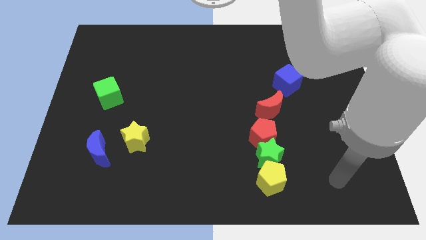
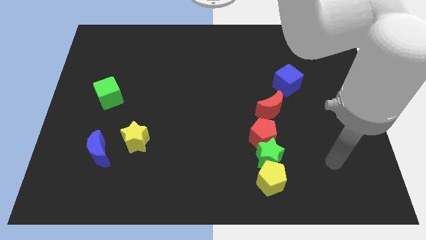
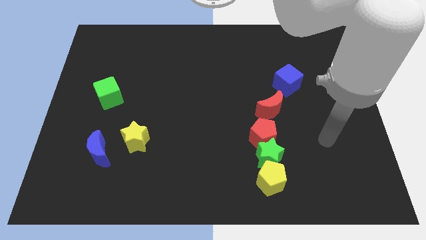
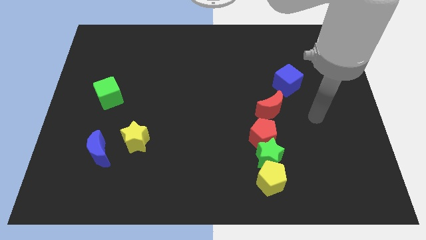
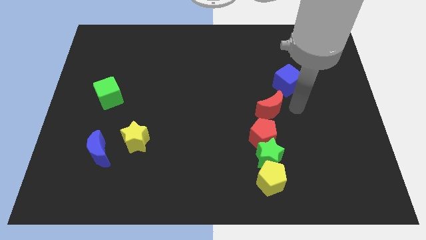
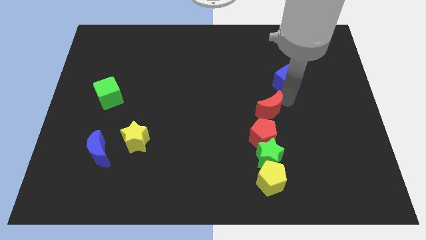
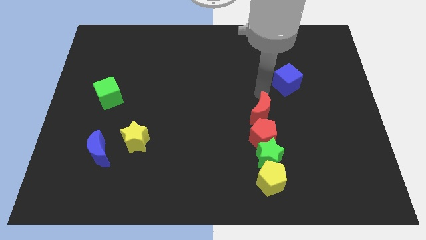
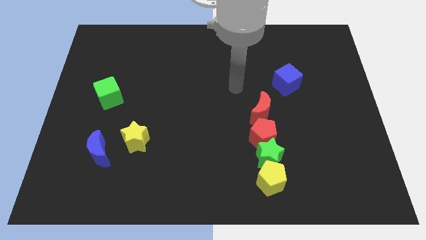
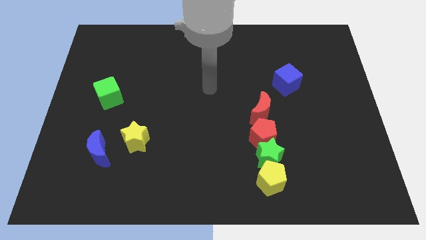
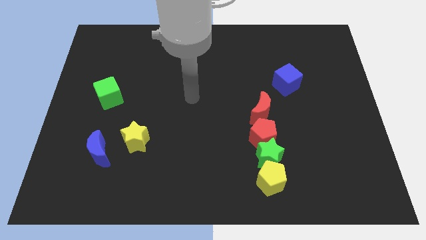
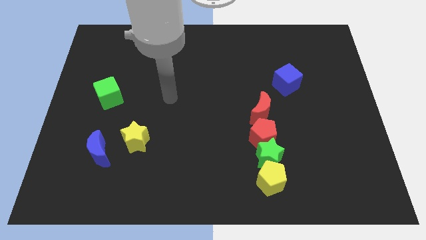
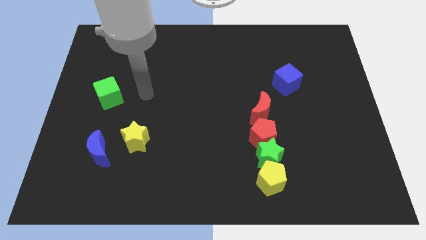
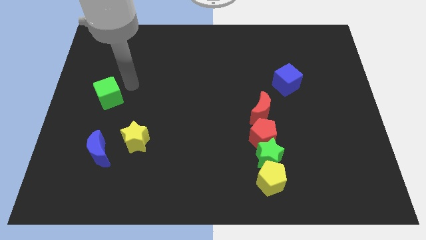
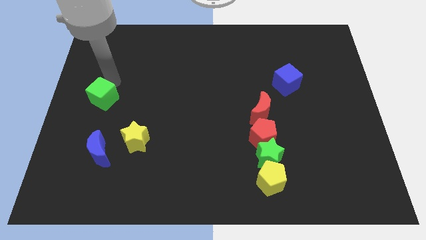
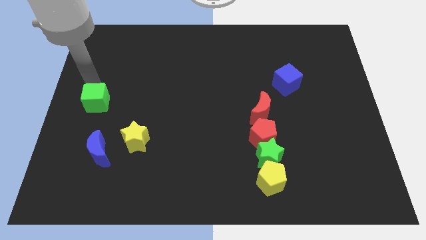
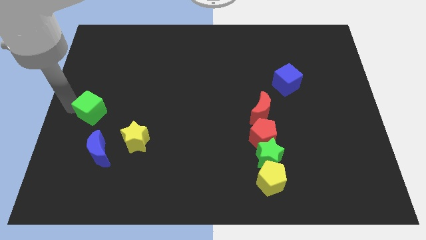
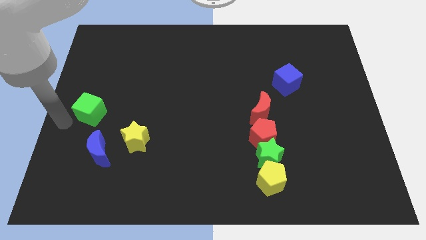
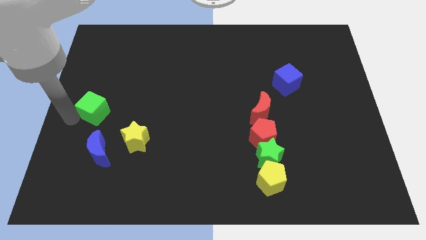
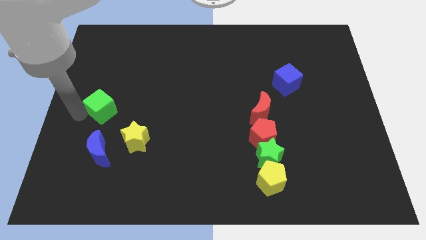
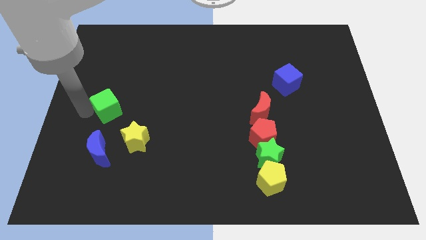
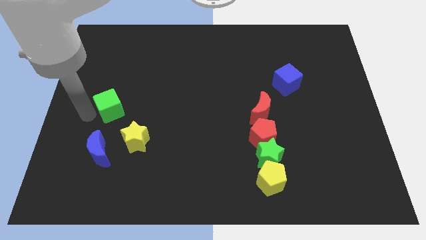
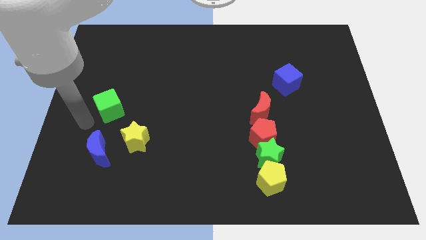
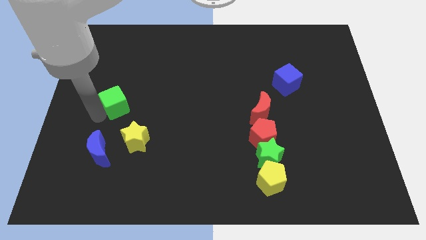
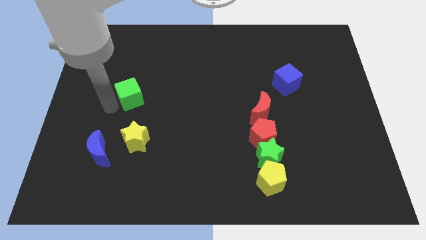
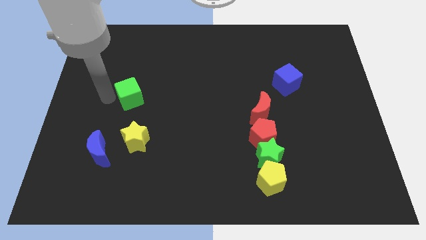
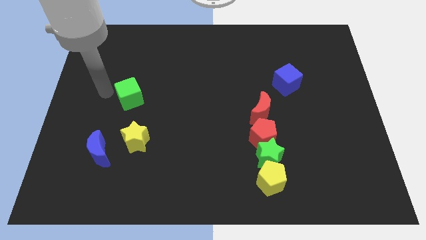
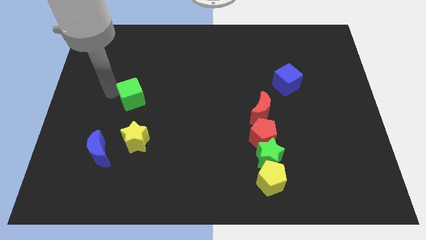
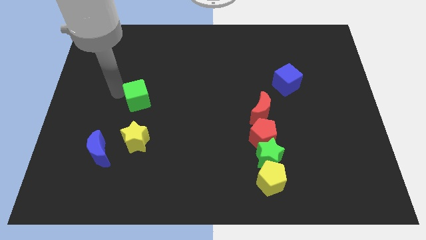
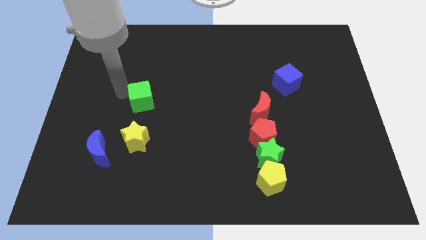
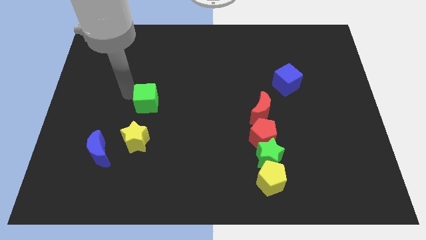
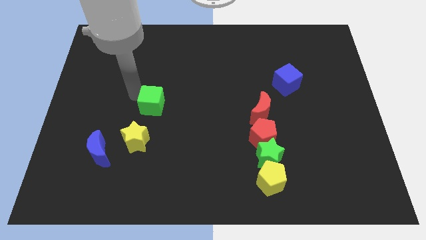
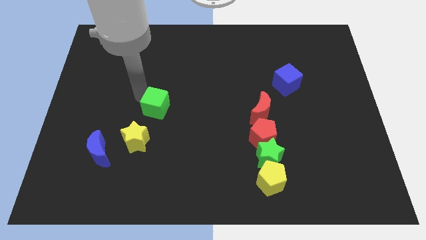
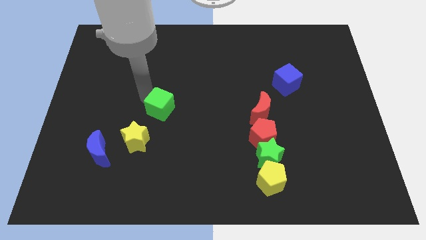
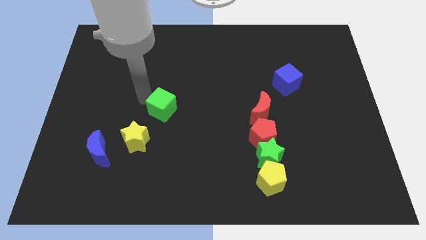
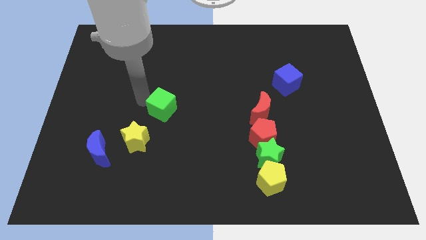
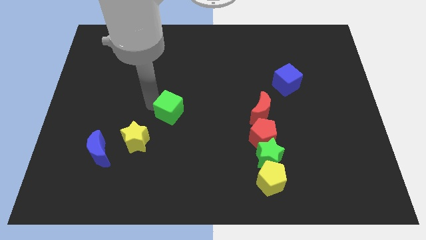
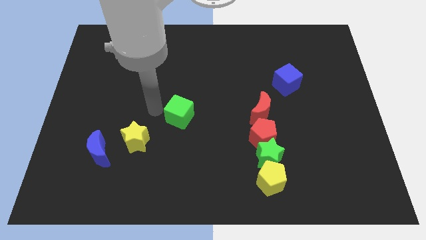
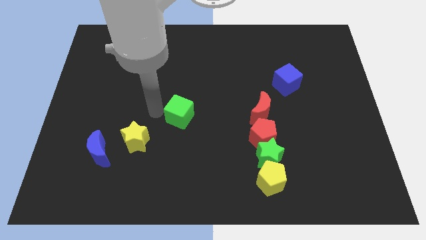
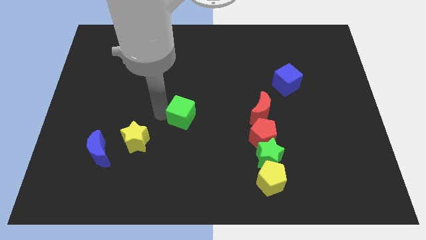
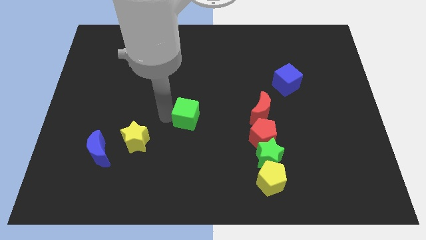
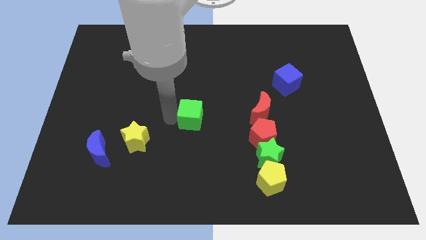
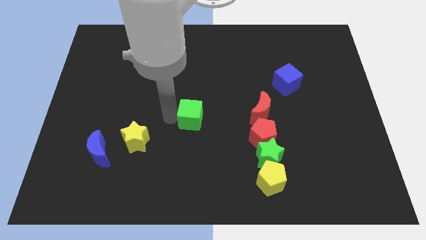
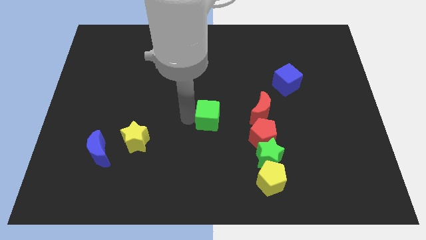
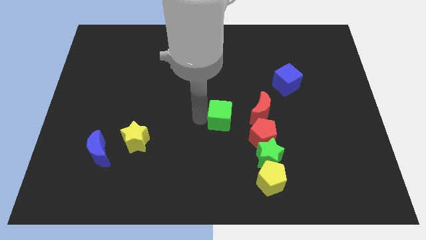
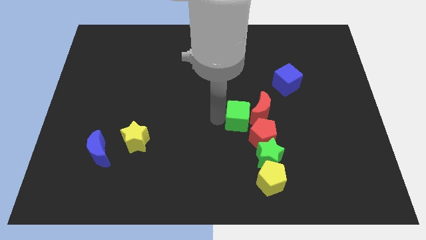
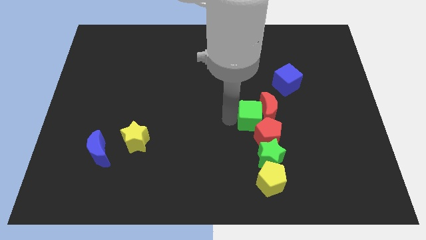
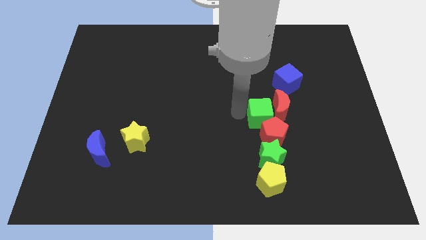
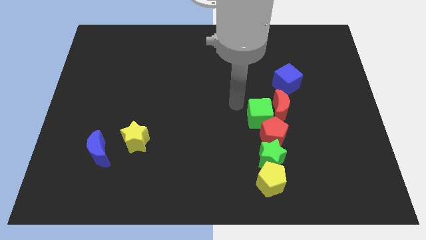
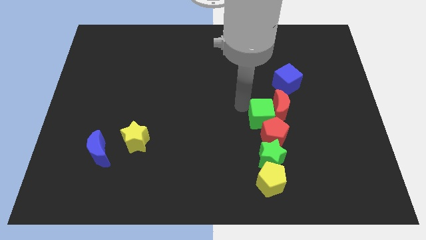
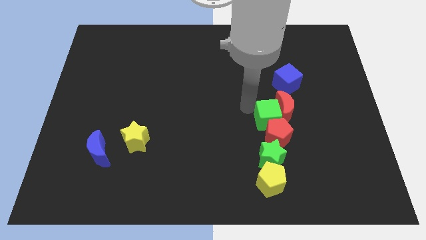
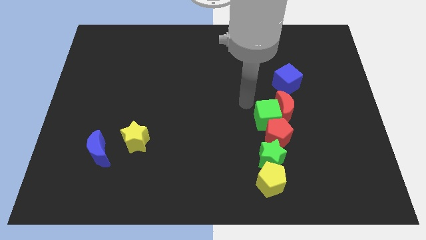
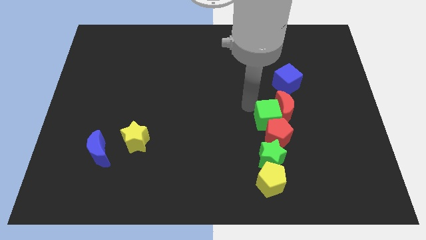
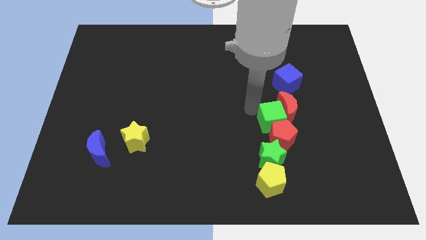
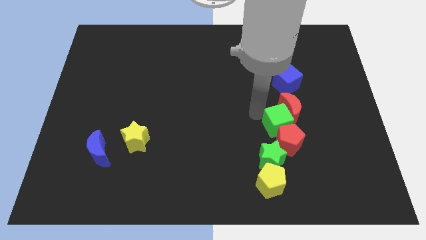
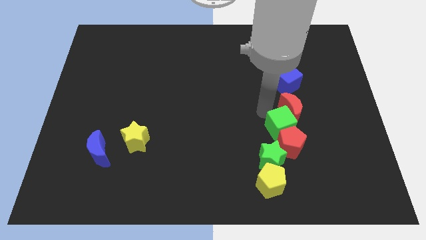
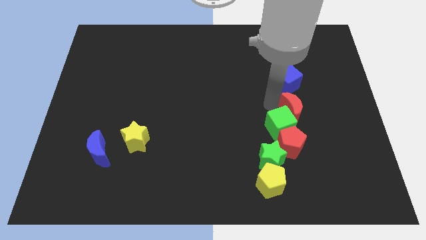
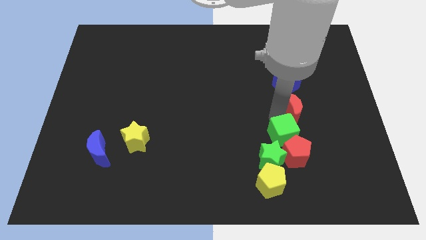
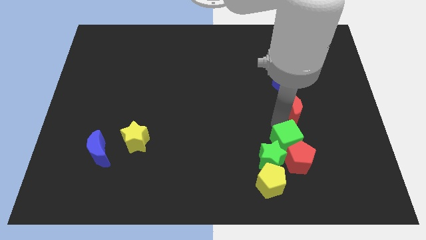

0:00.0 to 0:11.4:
push the green cube diagonally up and to the right of the yellow pentagon

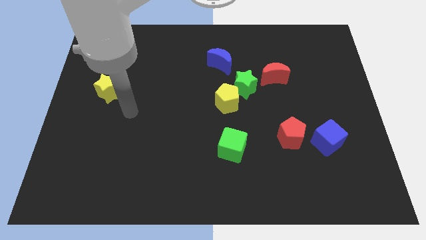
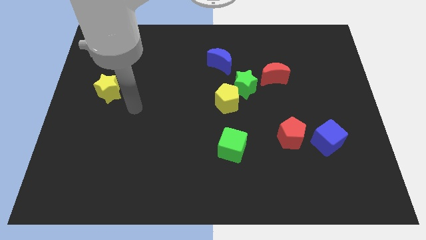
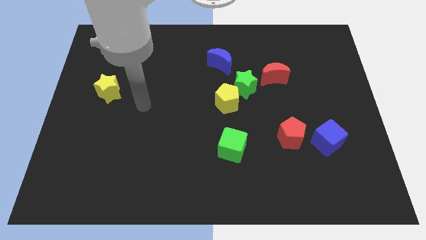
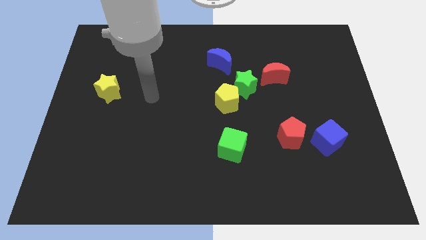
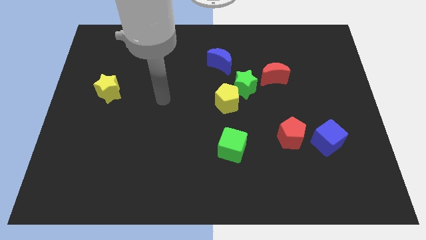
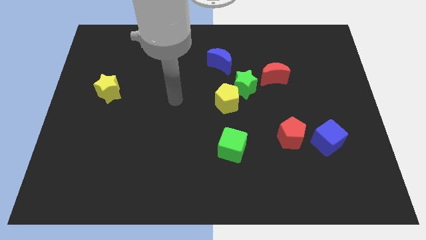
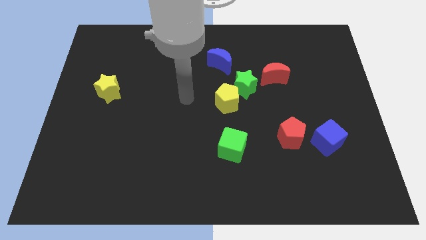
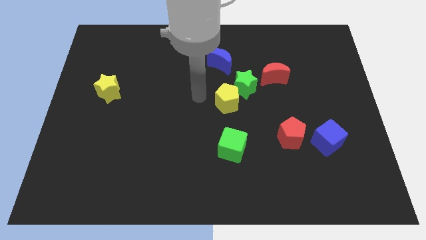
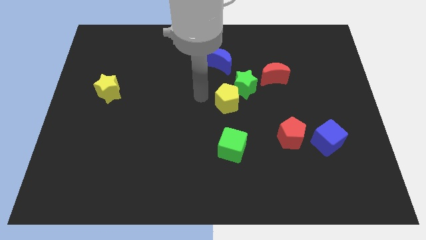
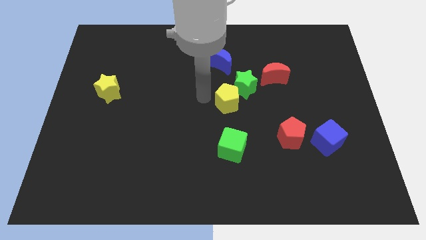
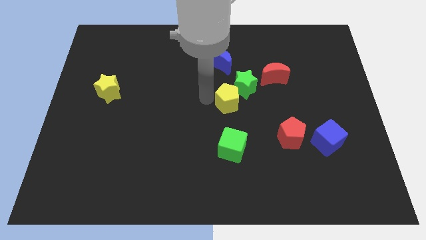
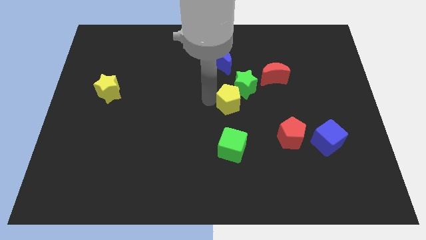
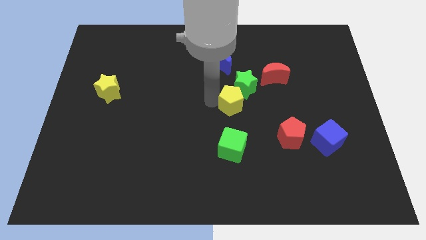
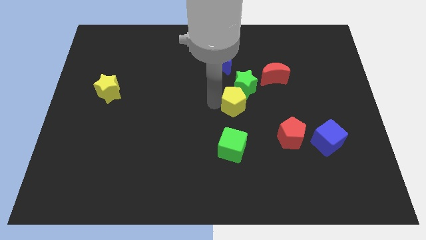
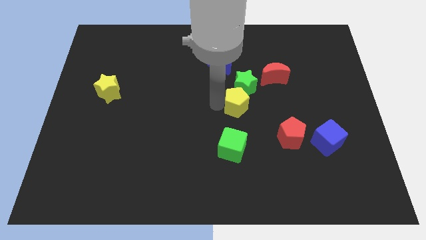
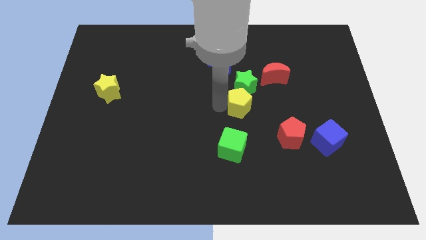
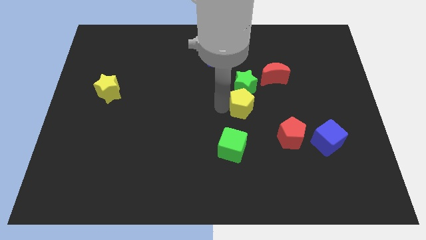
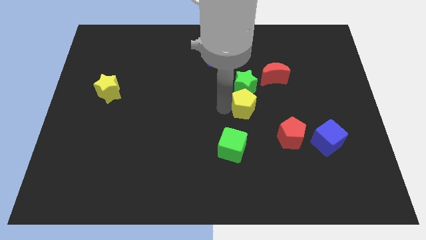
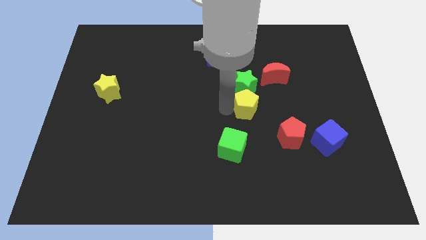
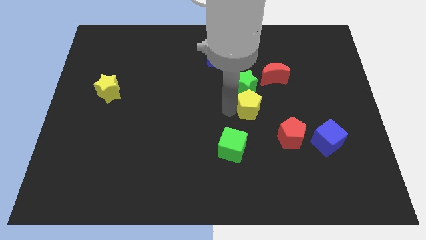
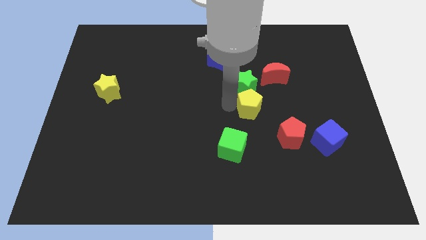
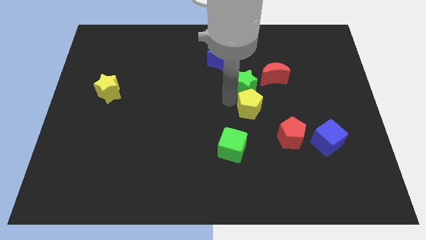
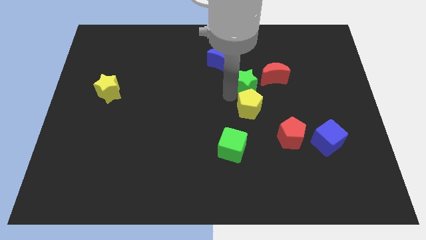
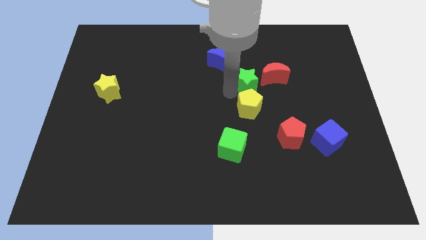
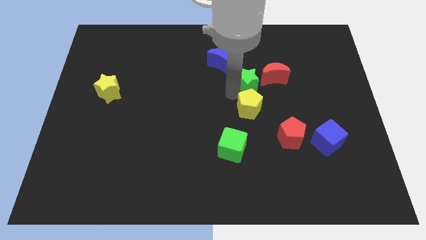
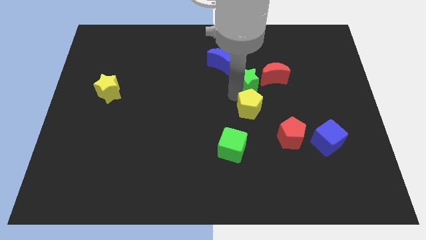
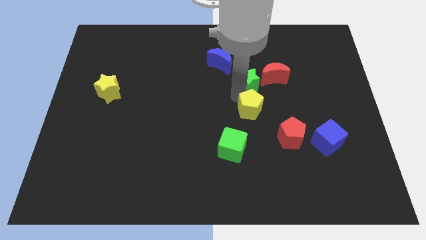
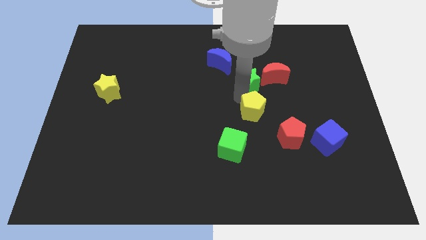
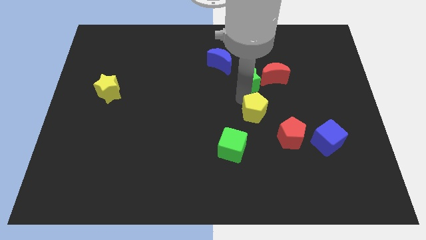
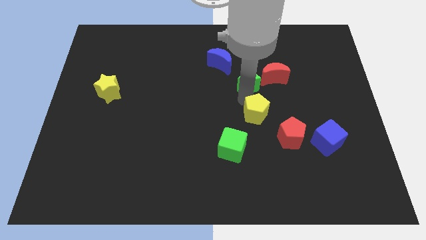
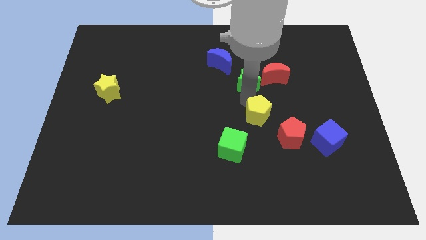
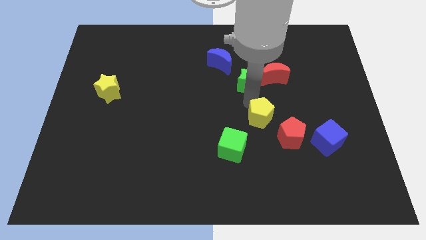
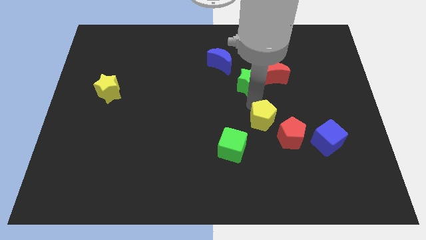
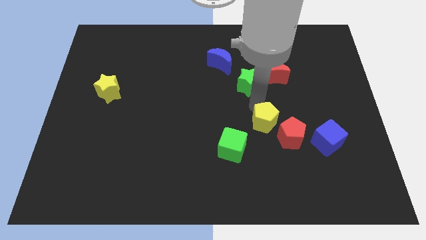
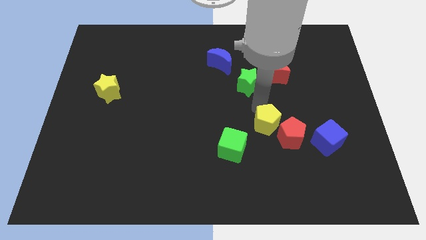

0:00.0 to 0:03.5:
move the yellow pentagon just left of the blue cube
